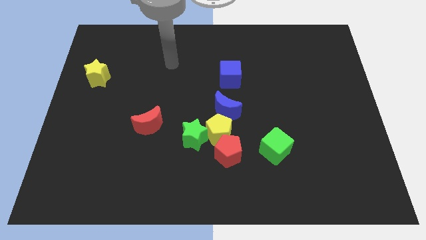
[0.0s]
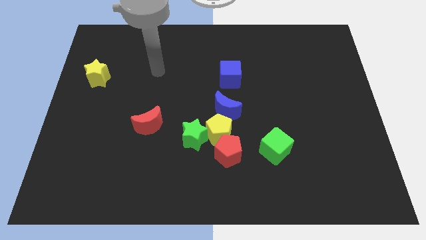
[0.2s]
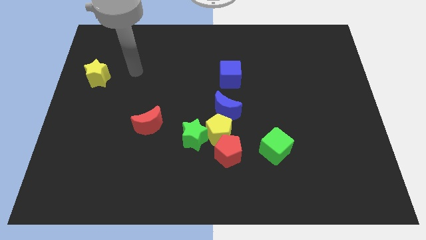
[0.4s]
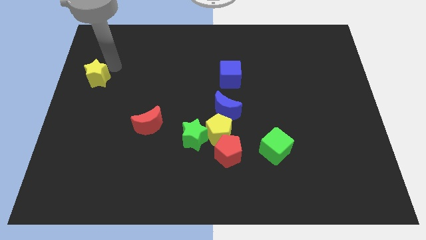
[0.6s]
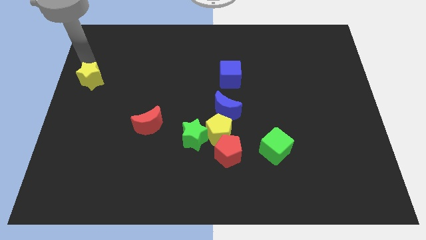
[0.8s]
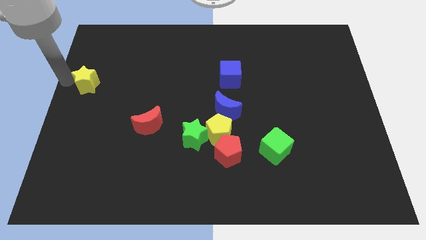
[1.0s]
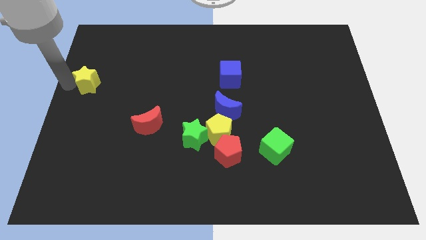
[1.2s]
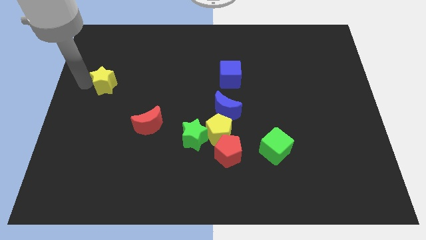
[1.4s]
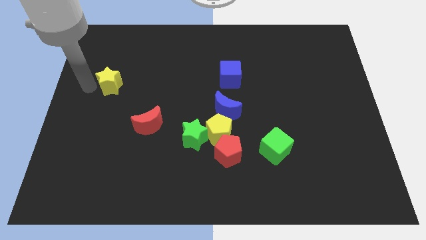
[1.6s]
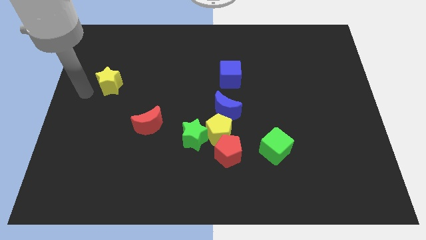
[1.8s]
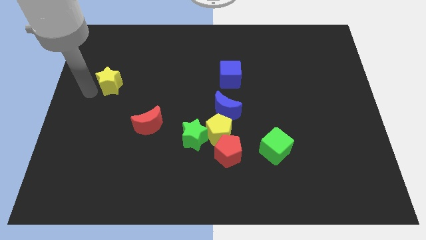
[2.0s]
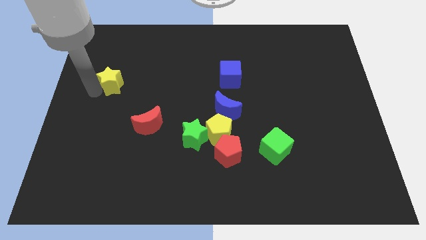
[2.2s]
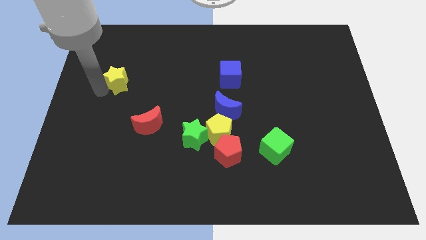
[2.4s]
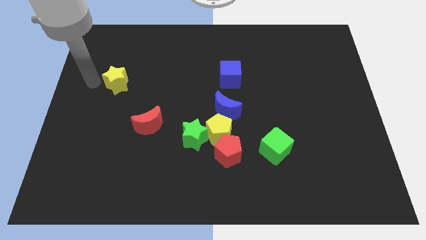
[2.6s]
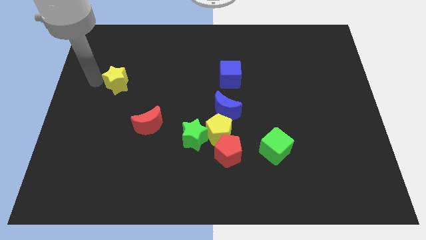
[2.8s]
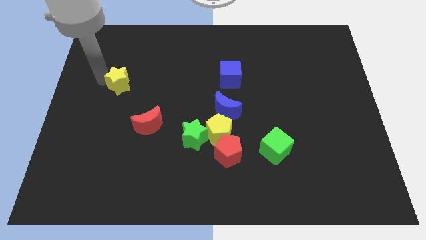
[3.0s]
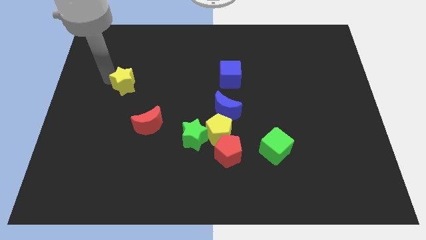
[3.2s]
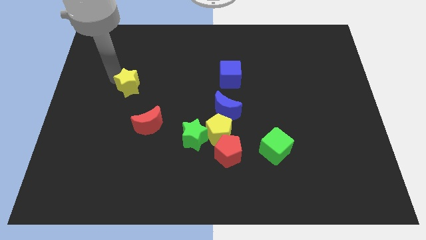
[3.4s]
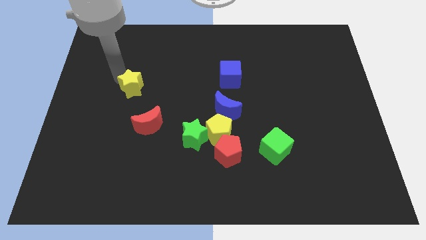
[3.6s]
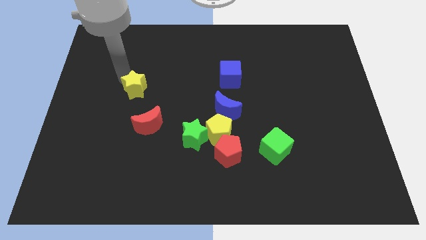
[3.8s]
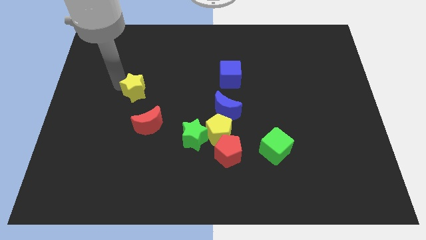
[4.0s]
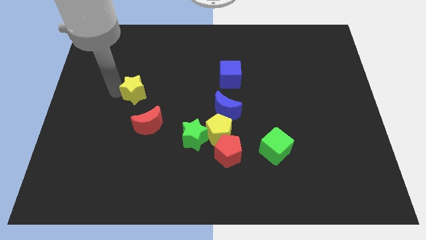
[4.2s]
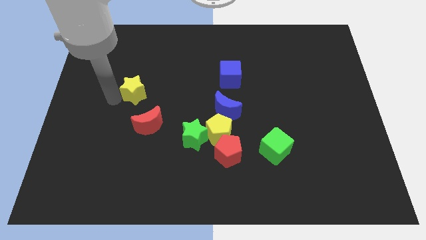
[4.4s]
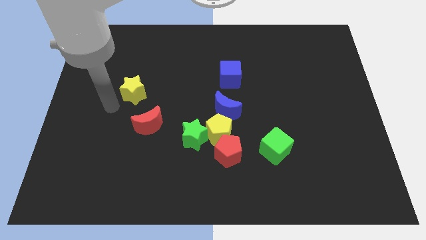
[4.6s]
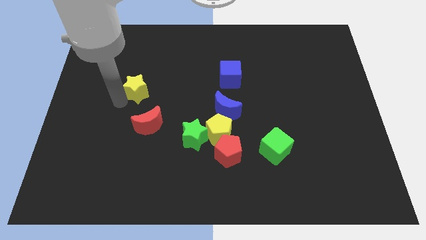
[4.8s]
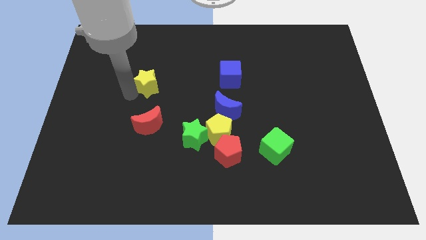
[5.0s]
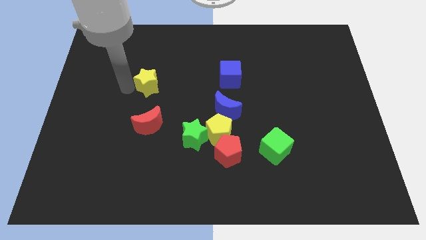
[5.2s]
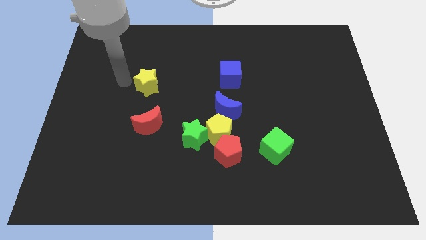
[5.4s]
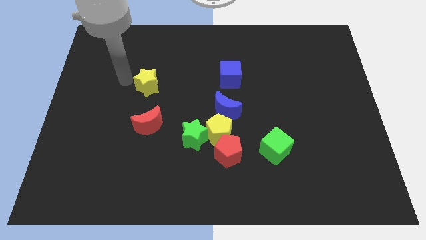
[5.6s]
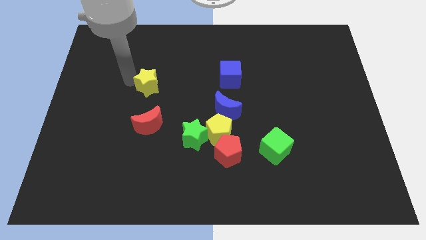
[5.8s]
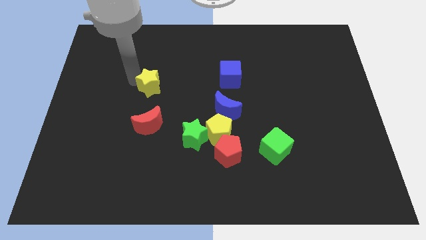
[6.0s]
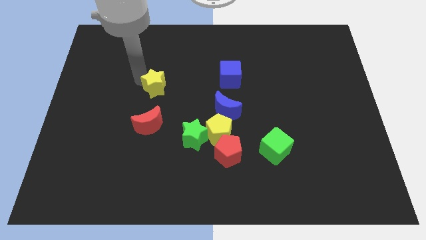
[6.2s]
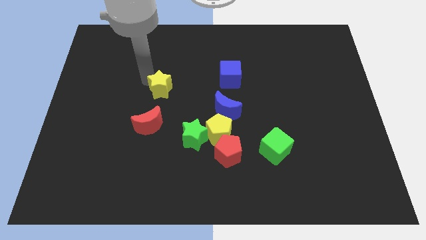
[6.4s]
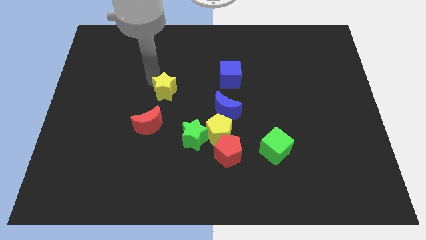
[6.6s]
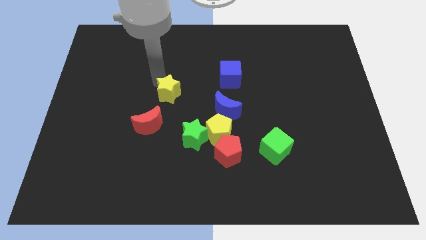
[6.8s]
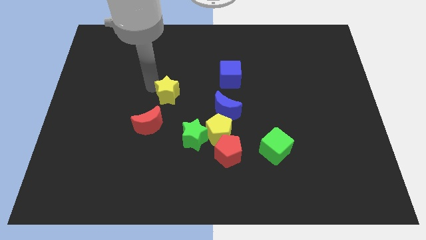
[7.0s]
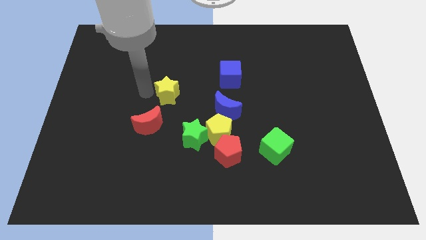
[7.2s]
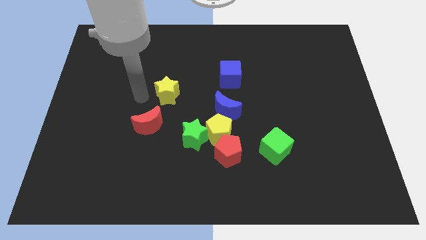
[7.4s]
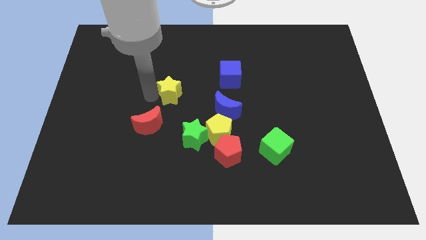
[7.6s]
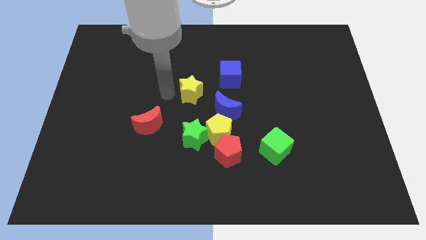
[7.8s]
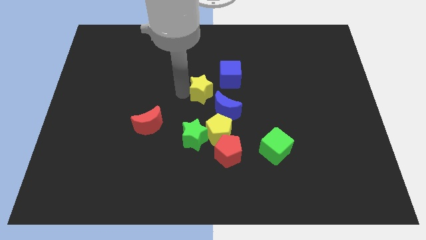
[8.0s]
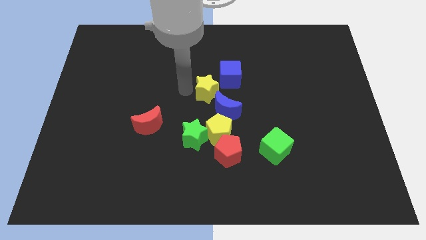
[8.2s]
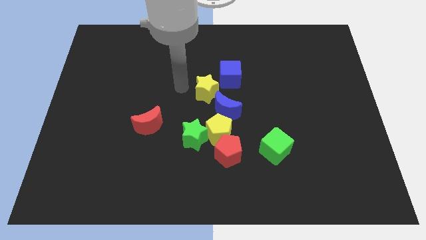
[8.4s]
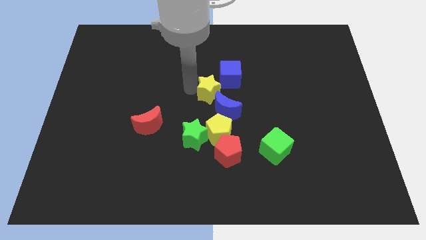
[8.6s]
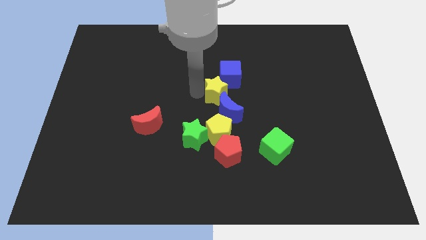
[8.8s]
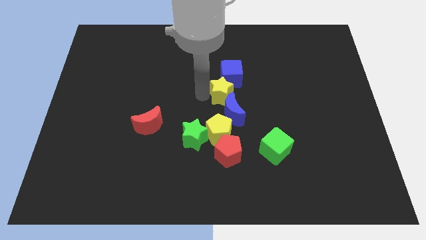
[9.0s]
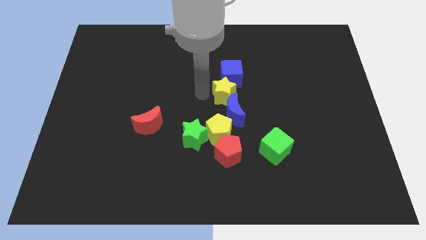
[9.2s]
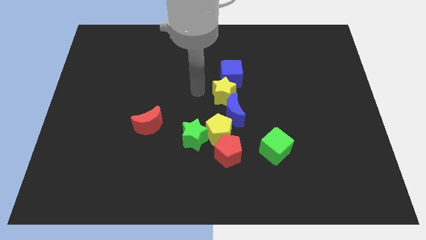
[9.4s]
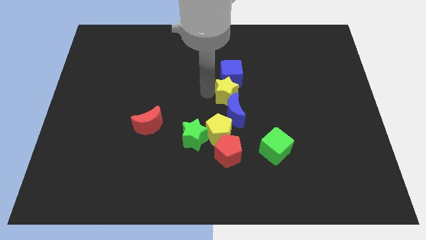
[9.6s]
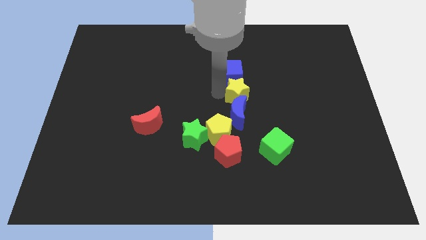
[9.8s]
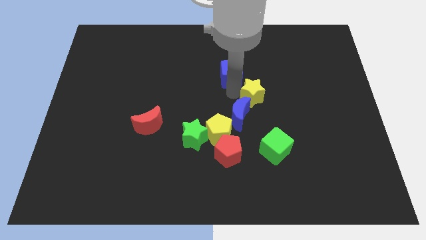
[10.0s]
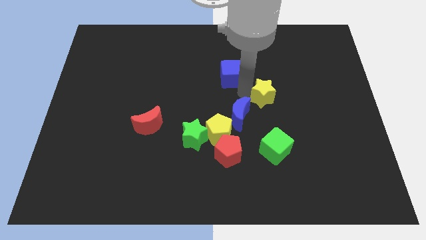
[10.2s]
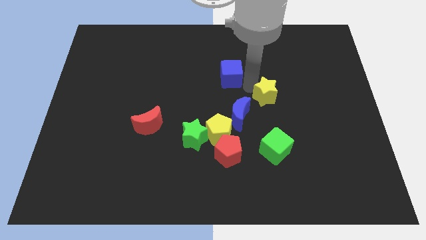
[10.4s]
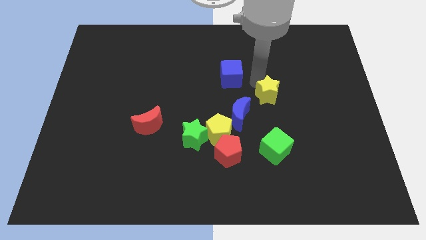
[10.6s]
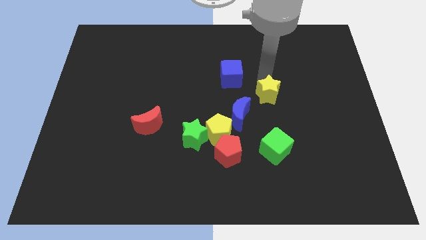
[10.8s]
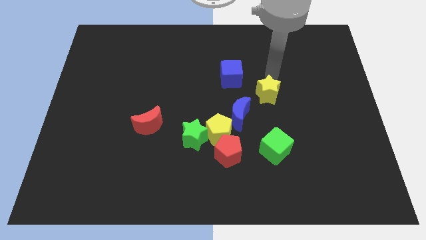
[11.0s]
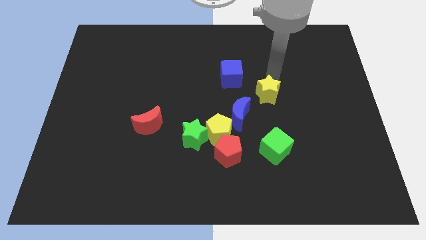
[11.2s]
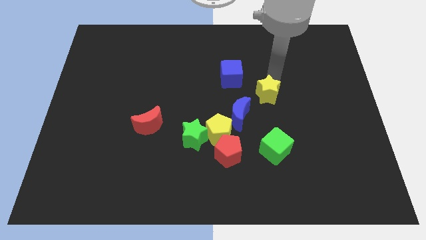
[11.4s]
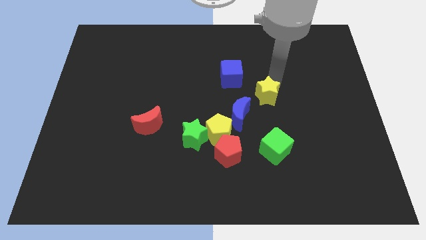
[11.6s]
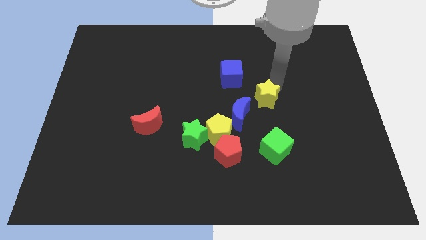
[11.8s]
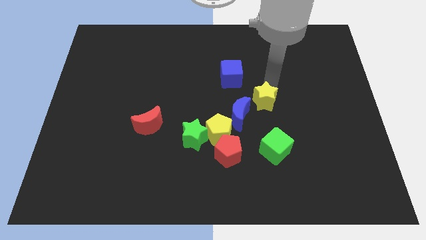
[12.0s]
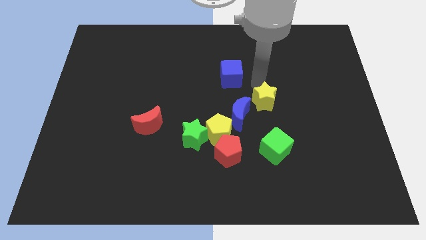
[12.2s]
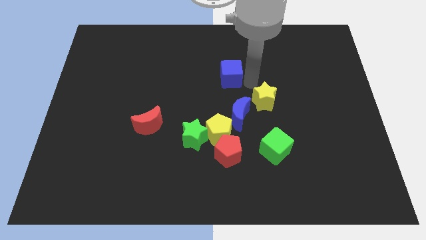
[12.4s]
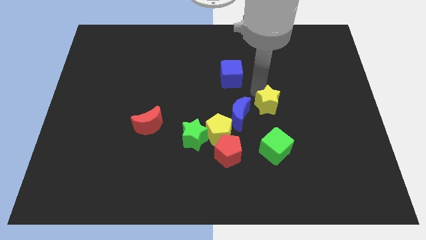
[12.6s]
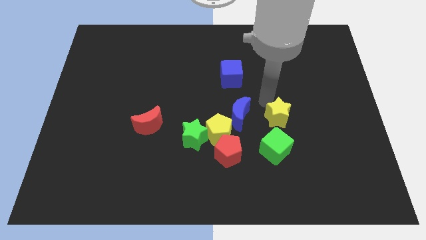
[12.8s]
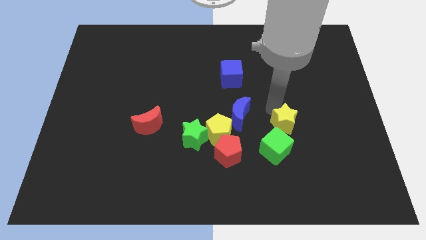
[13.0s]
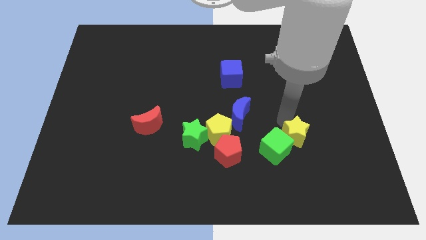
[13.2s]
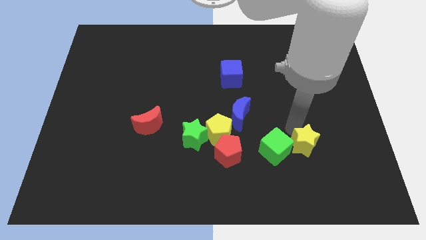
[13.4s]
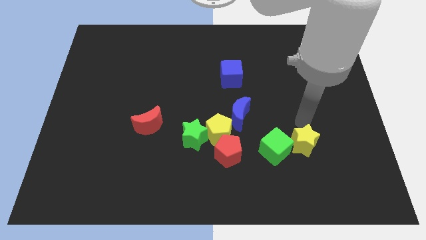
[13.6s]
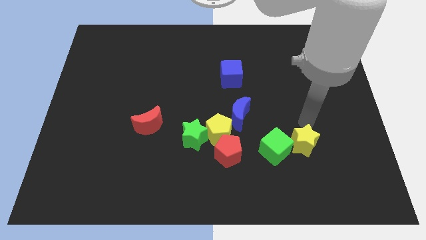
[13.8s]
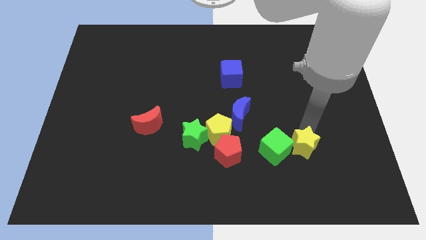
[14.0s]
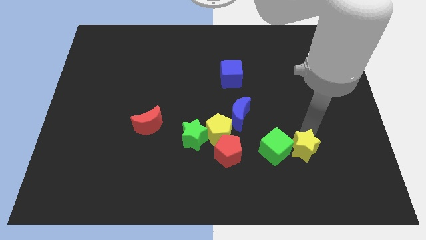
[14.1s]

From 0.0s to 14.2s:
move the yellow star diagonally down and to the right of the green cube
